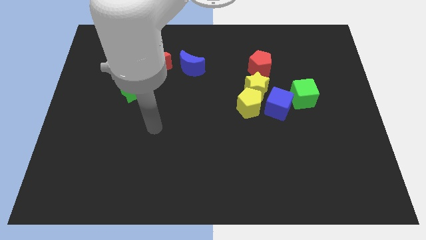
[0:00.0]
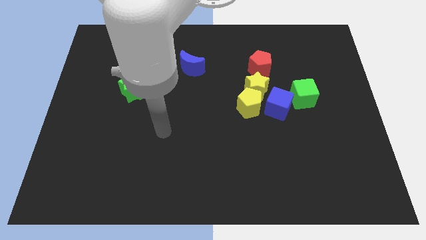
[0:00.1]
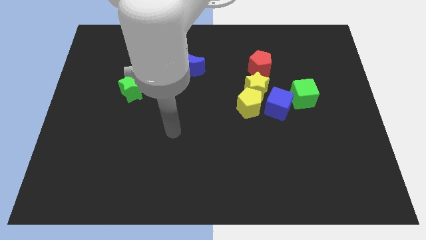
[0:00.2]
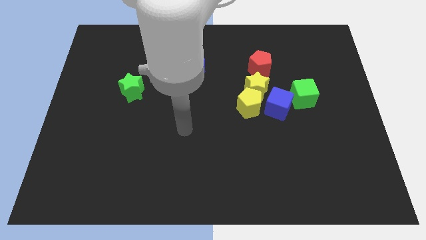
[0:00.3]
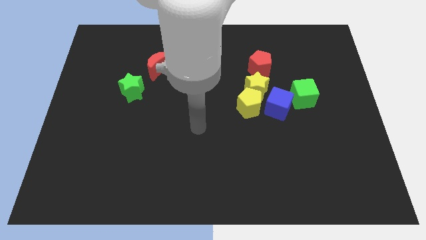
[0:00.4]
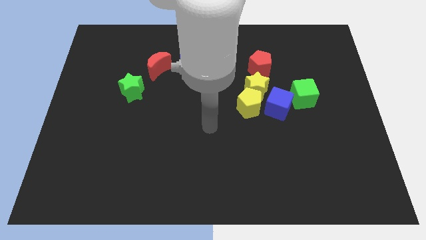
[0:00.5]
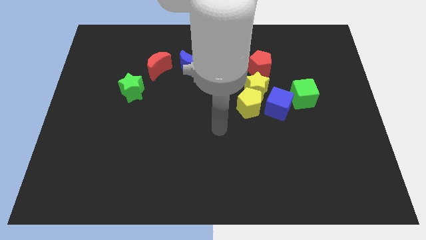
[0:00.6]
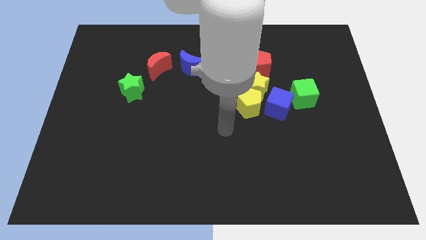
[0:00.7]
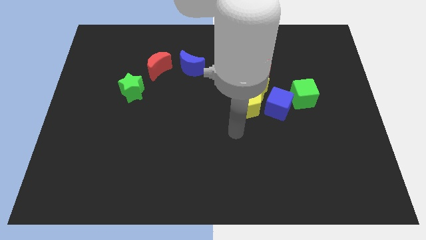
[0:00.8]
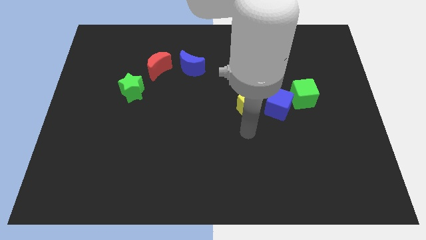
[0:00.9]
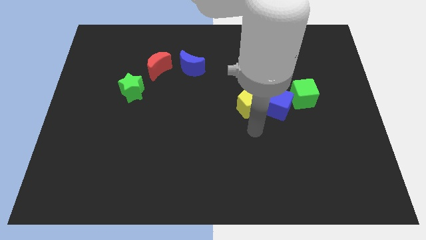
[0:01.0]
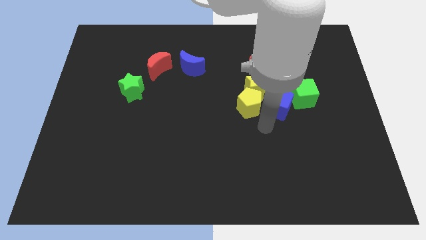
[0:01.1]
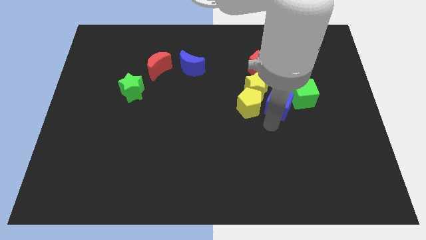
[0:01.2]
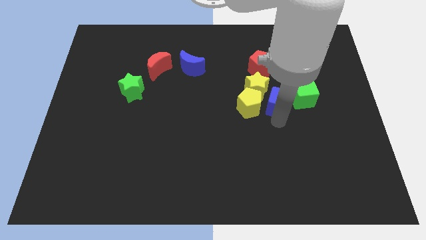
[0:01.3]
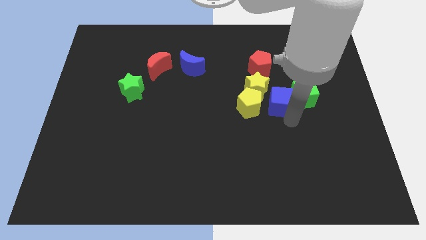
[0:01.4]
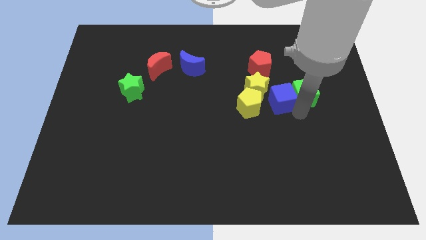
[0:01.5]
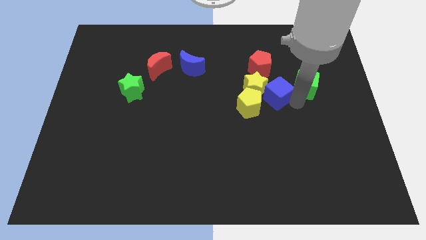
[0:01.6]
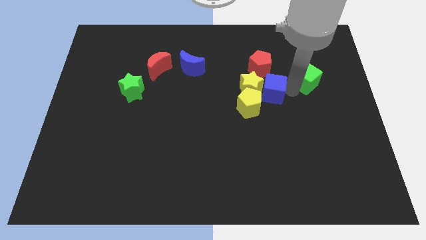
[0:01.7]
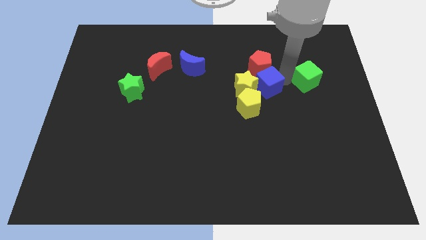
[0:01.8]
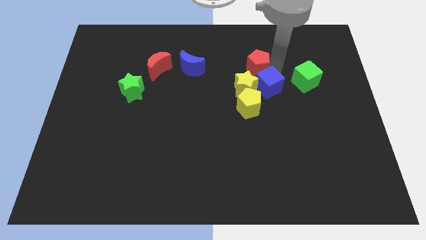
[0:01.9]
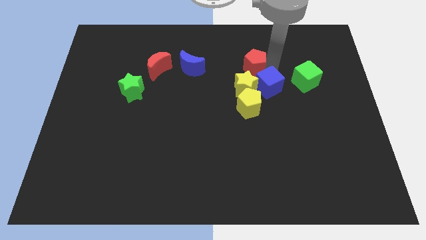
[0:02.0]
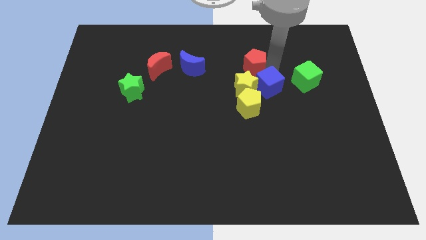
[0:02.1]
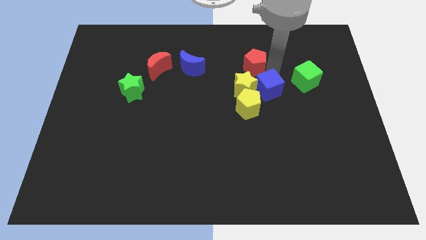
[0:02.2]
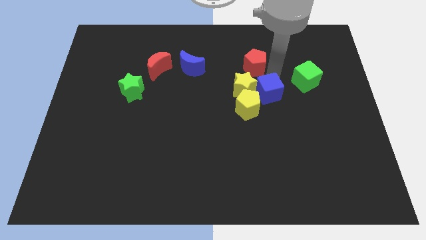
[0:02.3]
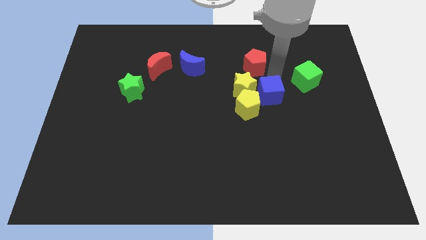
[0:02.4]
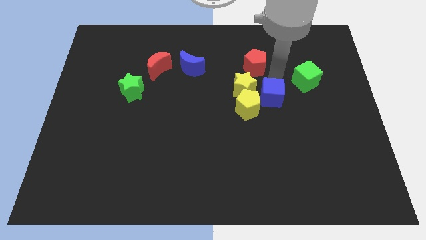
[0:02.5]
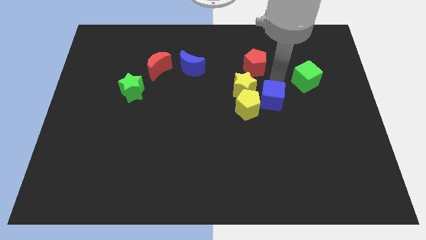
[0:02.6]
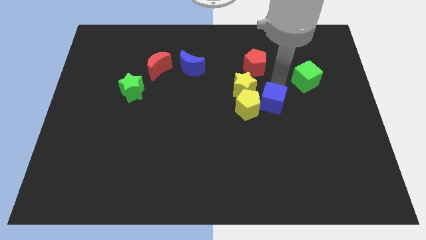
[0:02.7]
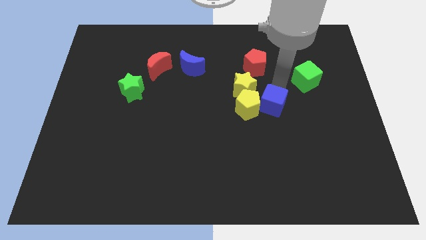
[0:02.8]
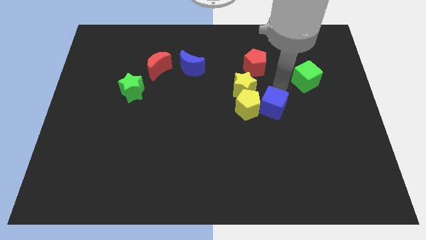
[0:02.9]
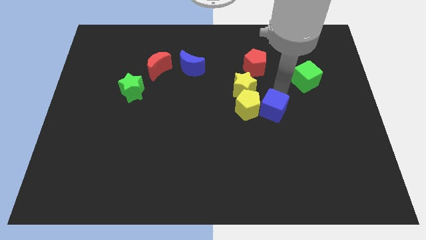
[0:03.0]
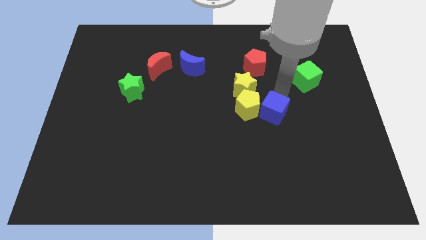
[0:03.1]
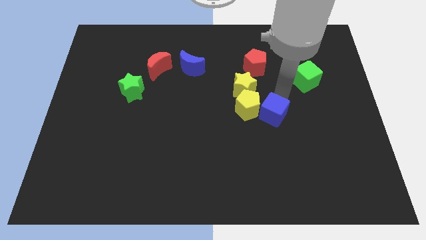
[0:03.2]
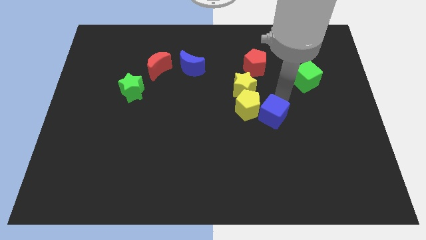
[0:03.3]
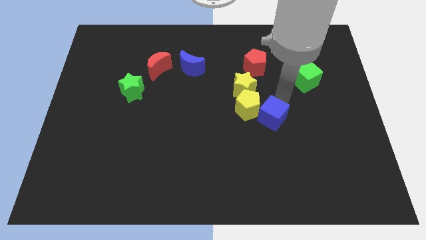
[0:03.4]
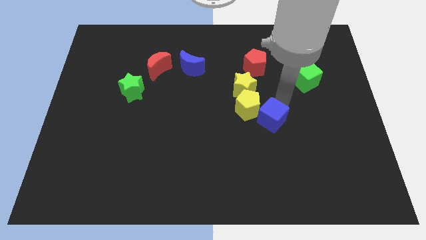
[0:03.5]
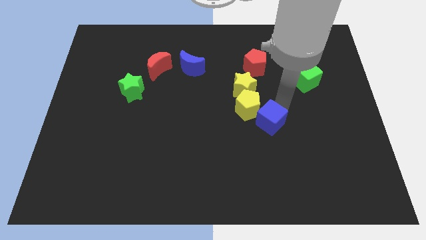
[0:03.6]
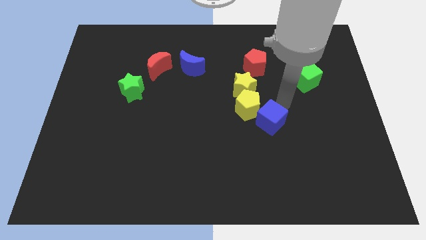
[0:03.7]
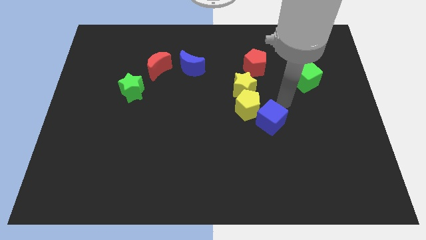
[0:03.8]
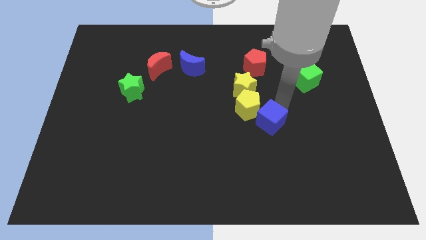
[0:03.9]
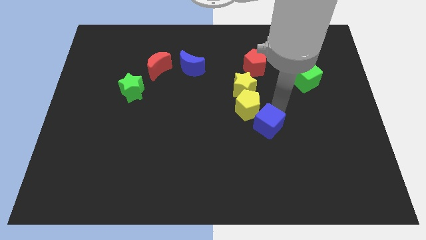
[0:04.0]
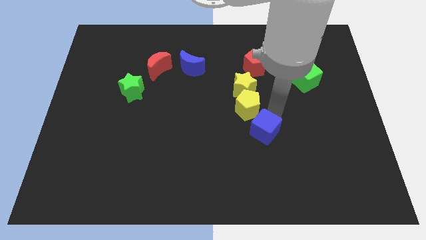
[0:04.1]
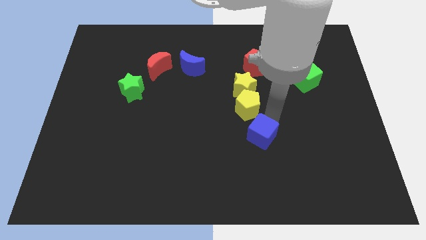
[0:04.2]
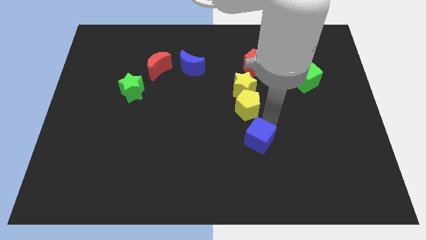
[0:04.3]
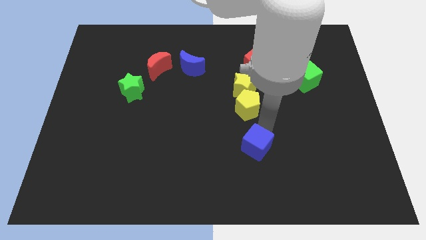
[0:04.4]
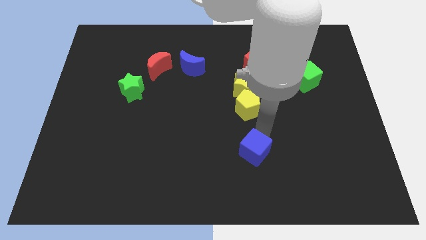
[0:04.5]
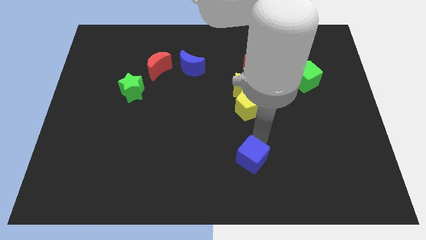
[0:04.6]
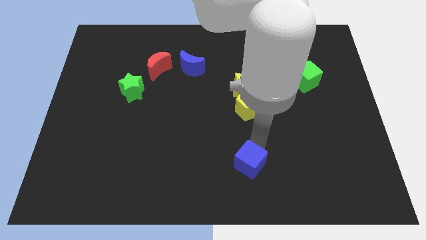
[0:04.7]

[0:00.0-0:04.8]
put the blue cube to the bottom

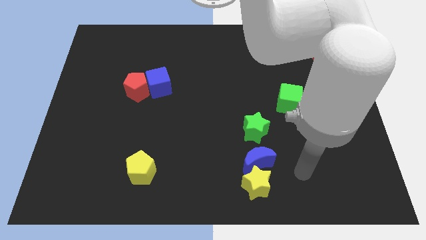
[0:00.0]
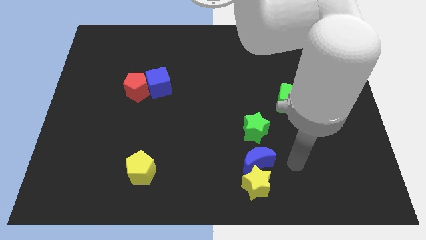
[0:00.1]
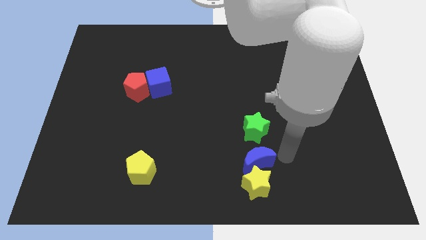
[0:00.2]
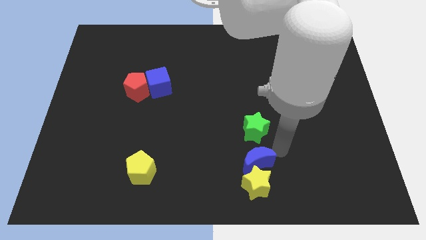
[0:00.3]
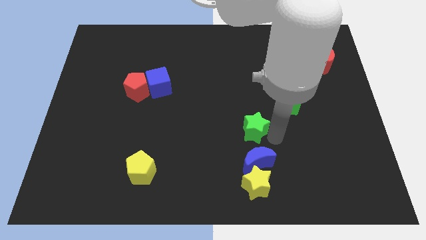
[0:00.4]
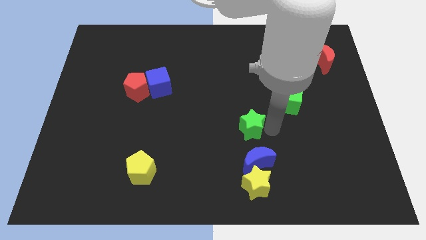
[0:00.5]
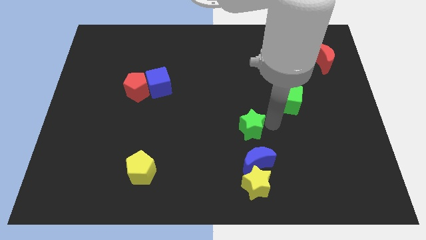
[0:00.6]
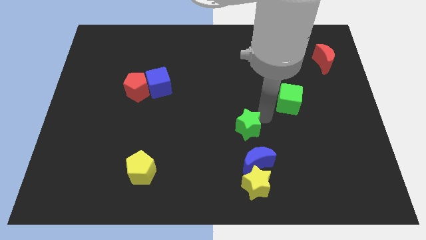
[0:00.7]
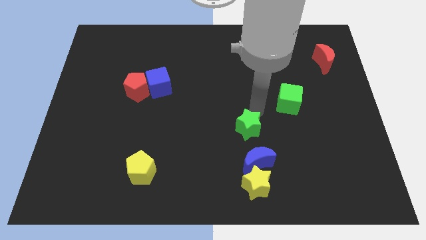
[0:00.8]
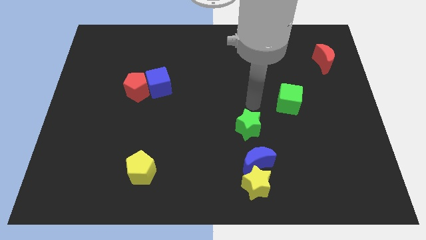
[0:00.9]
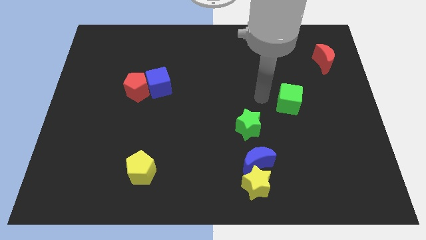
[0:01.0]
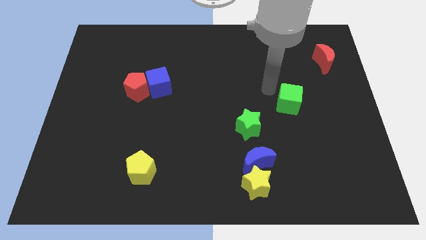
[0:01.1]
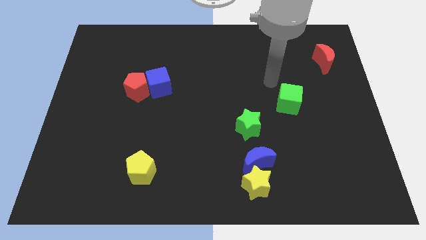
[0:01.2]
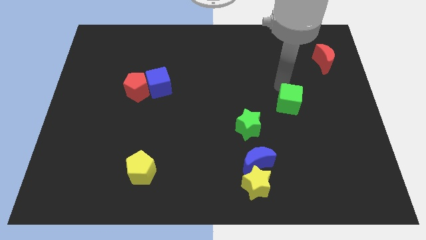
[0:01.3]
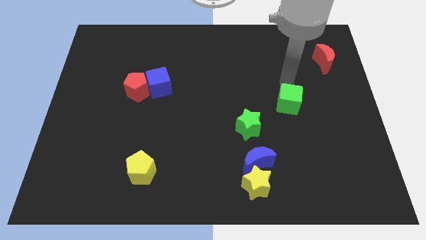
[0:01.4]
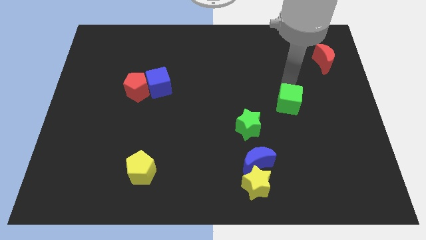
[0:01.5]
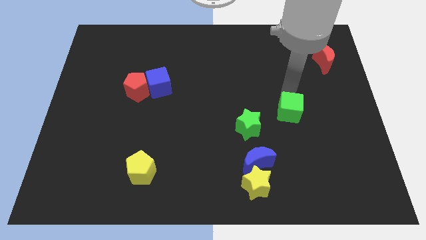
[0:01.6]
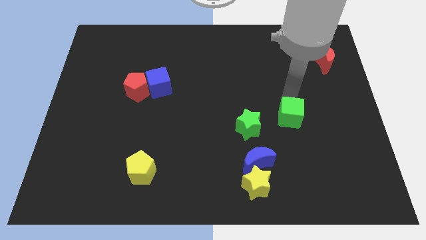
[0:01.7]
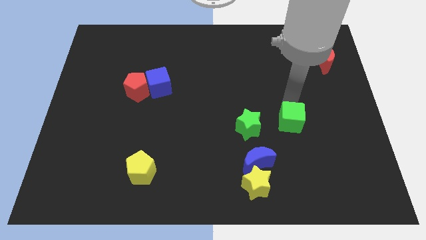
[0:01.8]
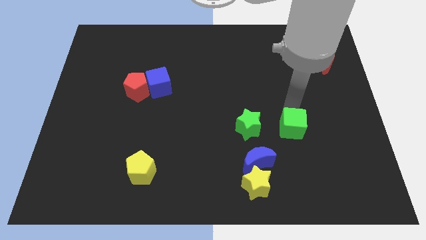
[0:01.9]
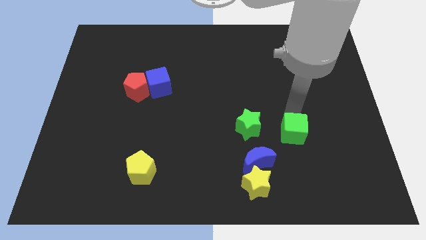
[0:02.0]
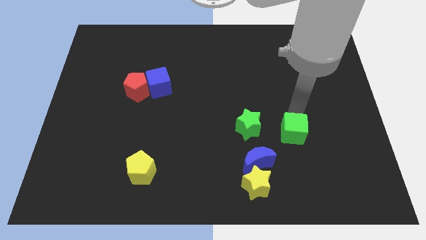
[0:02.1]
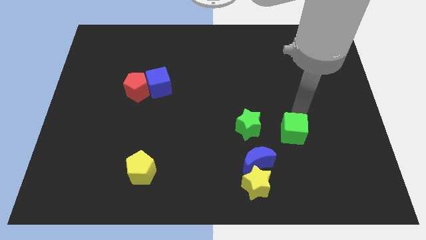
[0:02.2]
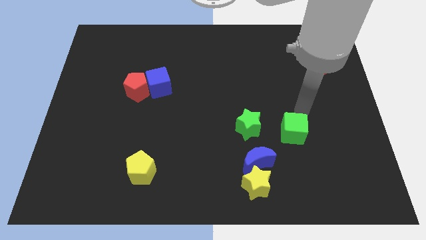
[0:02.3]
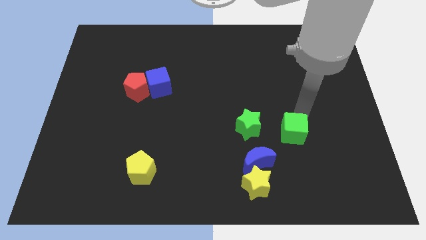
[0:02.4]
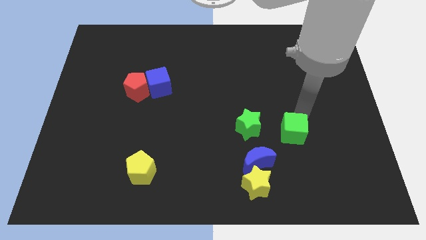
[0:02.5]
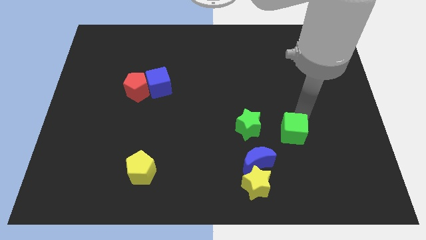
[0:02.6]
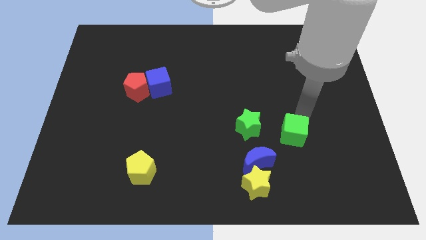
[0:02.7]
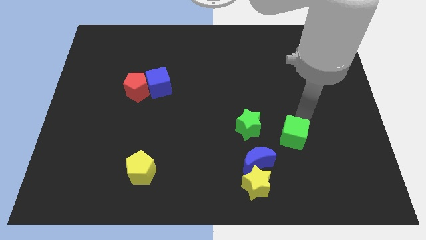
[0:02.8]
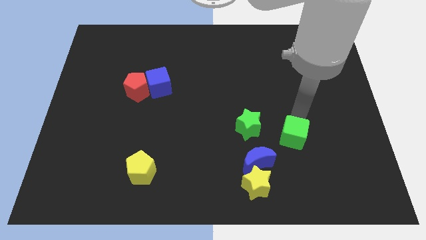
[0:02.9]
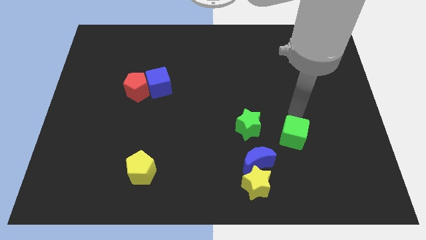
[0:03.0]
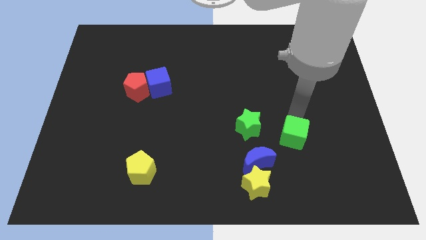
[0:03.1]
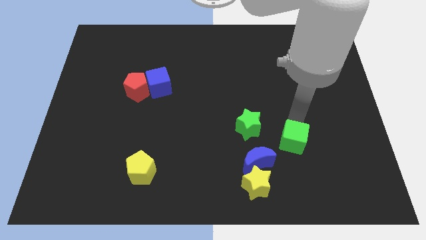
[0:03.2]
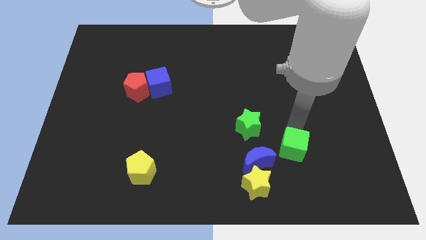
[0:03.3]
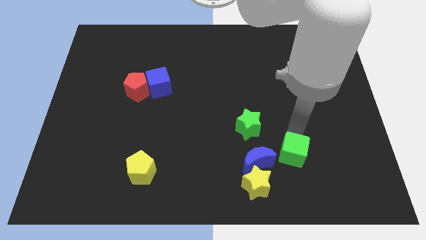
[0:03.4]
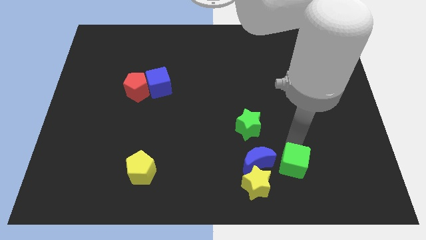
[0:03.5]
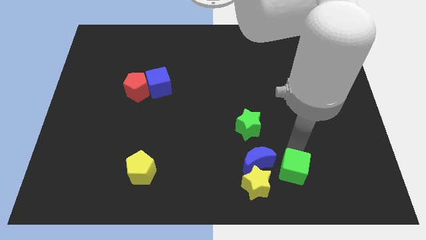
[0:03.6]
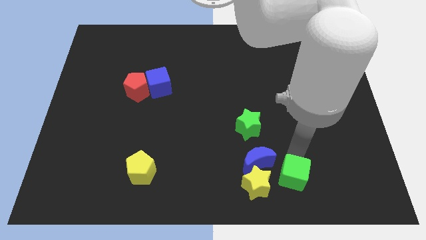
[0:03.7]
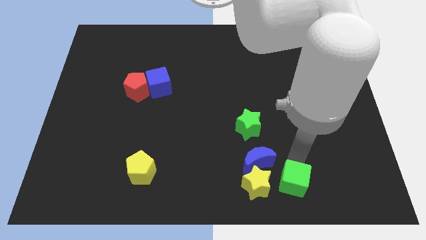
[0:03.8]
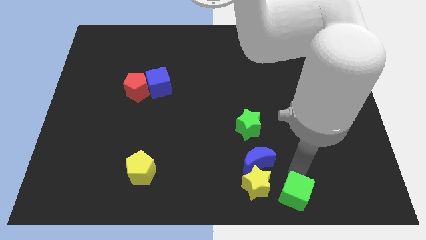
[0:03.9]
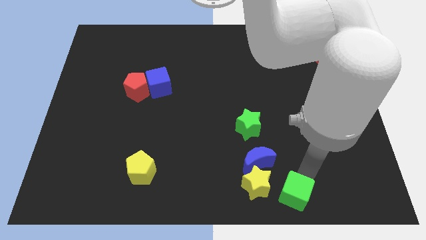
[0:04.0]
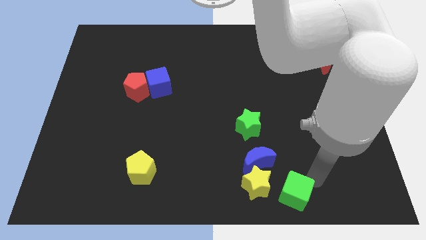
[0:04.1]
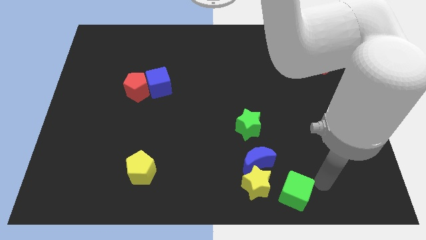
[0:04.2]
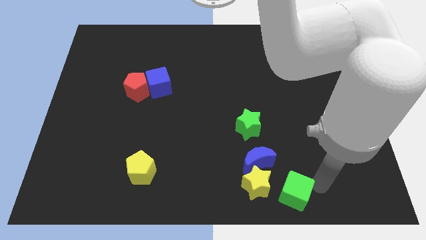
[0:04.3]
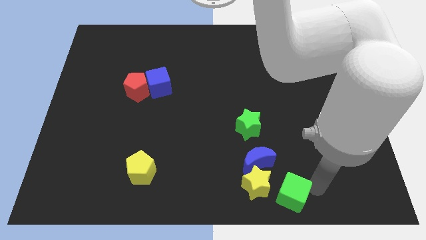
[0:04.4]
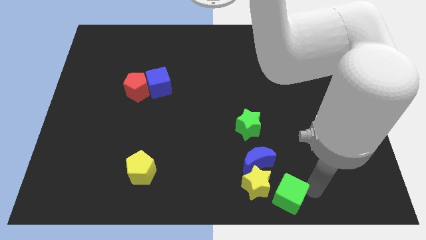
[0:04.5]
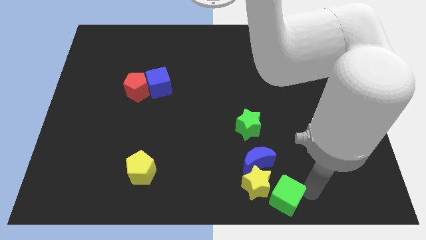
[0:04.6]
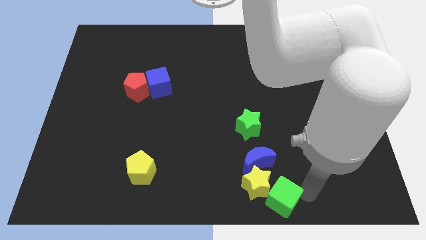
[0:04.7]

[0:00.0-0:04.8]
move the green cube to the bottom side
